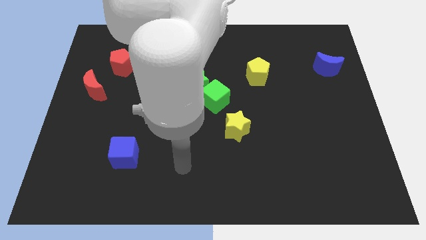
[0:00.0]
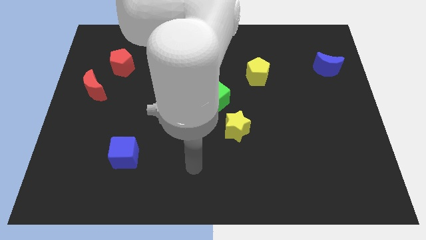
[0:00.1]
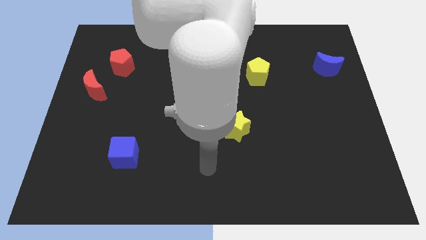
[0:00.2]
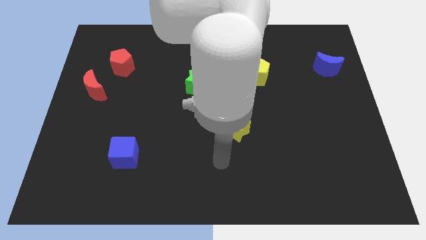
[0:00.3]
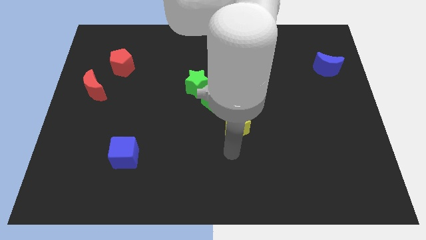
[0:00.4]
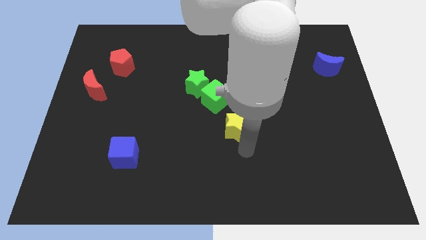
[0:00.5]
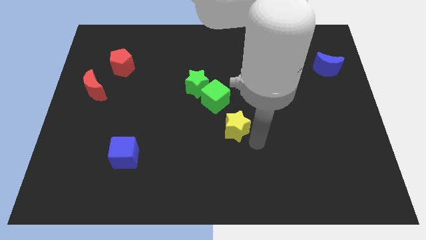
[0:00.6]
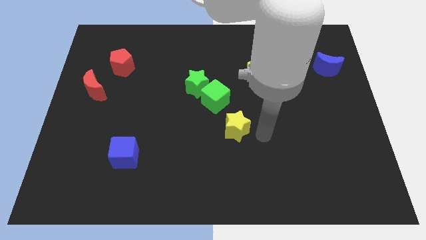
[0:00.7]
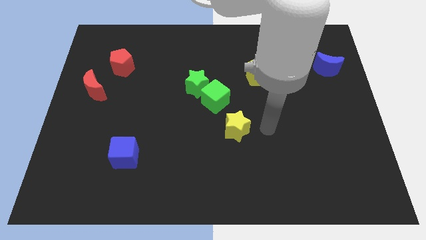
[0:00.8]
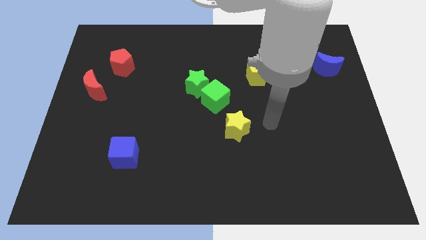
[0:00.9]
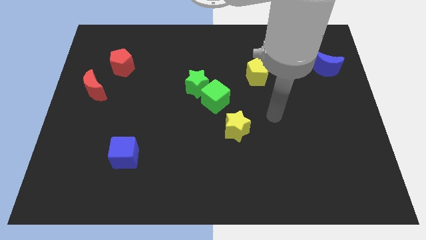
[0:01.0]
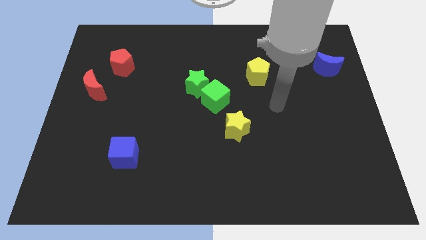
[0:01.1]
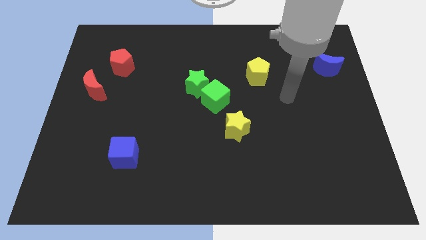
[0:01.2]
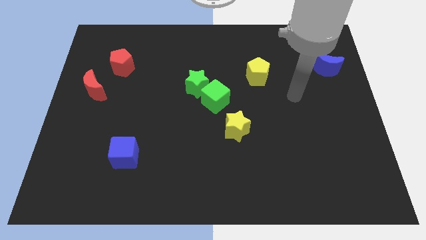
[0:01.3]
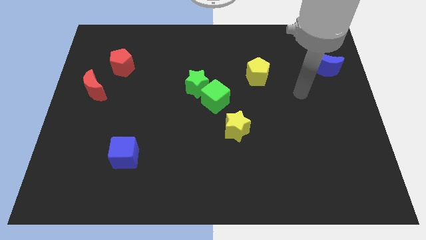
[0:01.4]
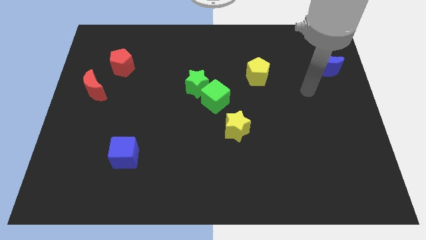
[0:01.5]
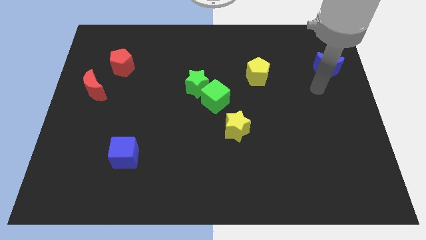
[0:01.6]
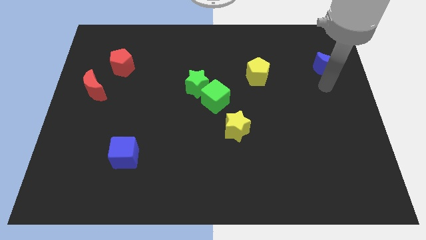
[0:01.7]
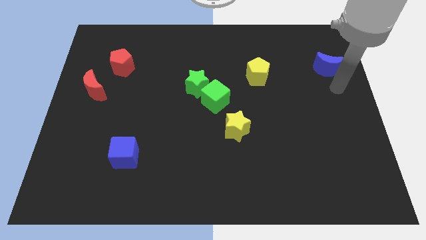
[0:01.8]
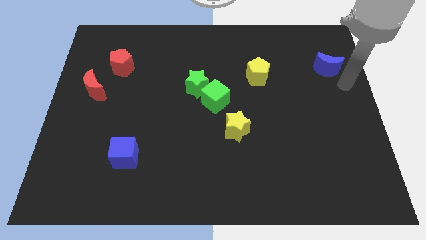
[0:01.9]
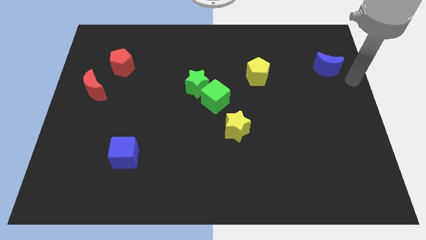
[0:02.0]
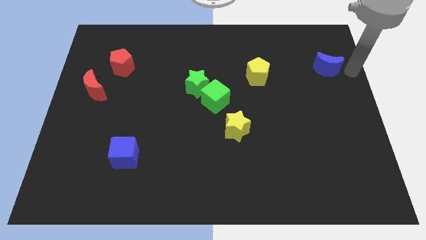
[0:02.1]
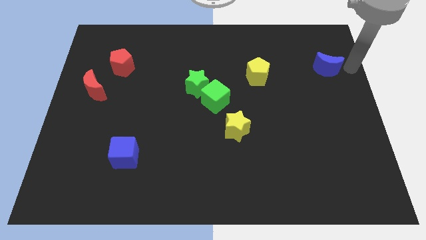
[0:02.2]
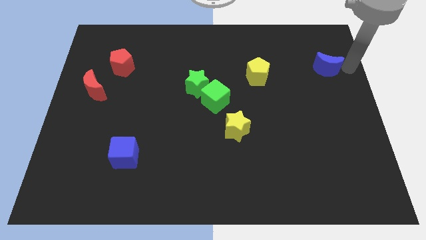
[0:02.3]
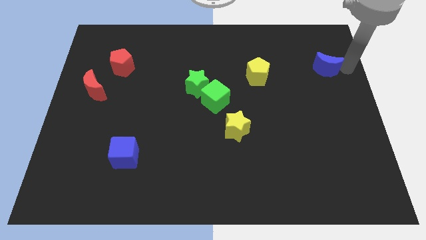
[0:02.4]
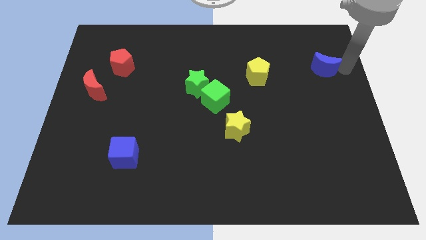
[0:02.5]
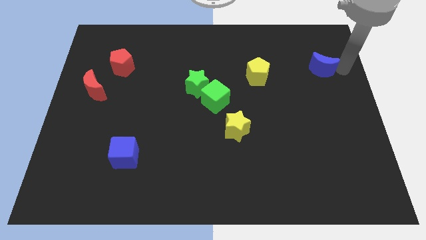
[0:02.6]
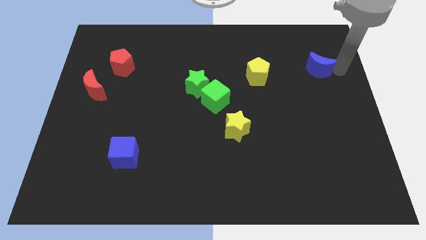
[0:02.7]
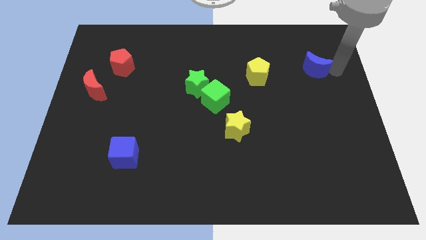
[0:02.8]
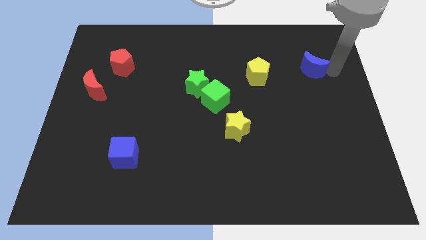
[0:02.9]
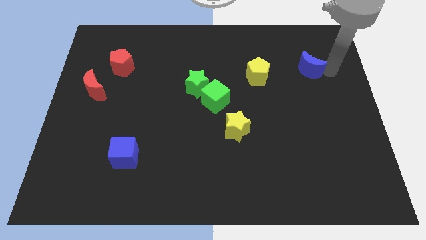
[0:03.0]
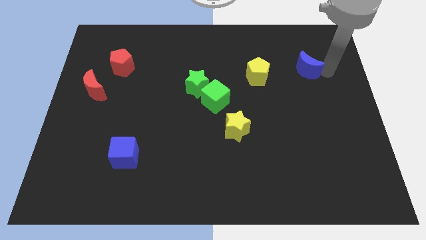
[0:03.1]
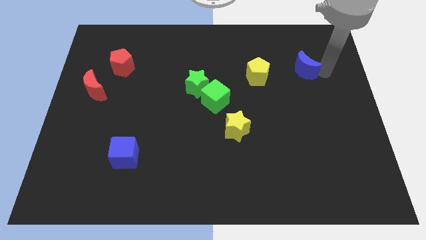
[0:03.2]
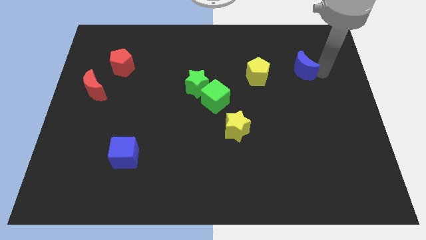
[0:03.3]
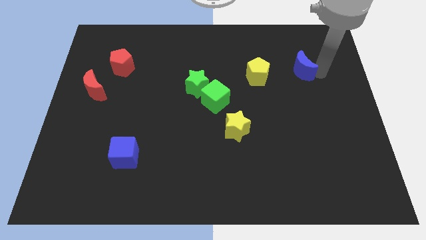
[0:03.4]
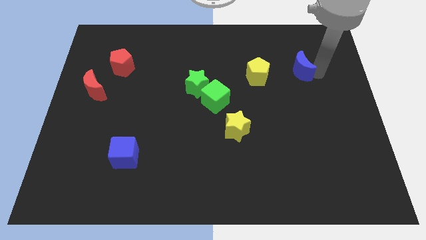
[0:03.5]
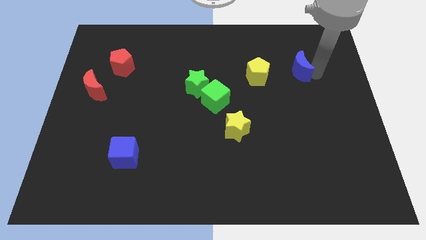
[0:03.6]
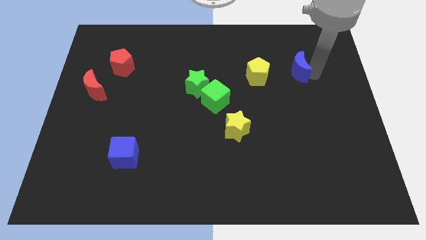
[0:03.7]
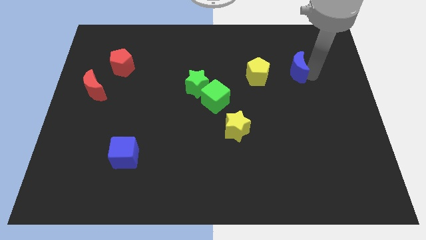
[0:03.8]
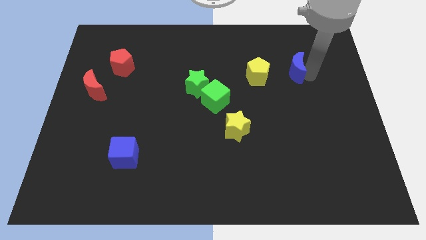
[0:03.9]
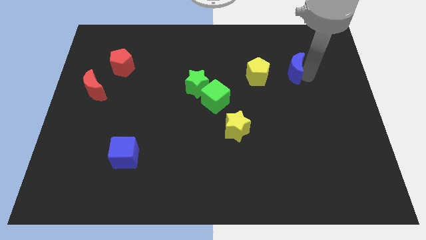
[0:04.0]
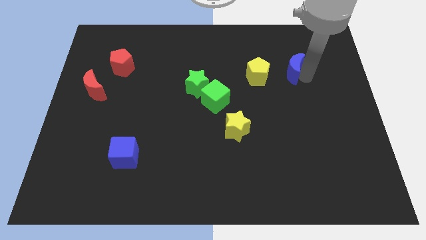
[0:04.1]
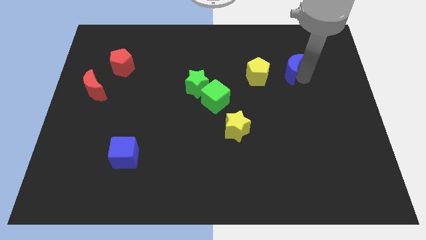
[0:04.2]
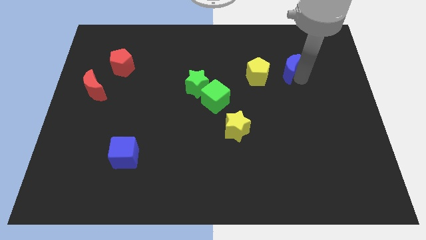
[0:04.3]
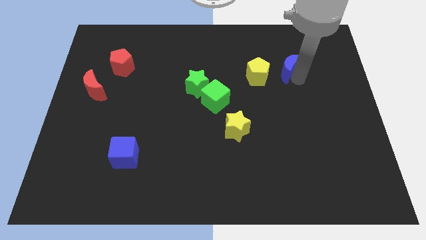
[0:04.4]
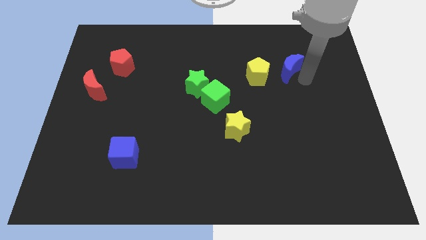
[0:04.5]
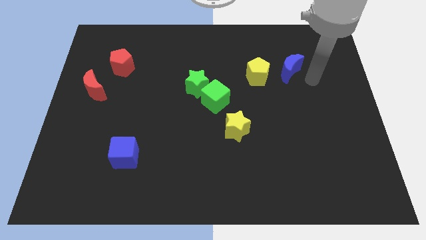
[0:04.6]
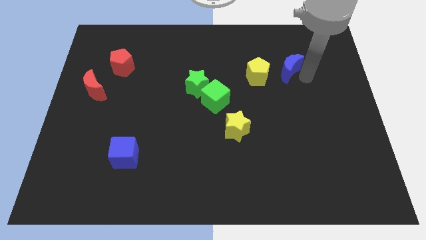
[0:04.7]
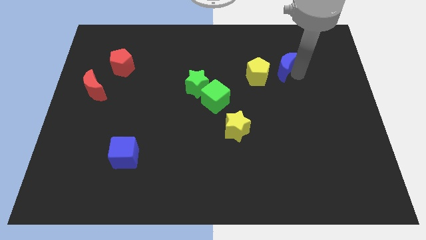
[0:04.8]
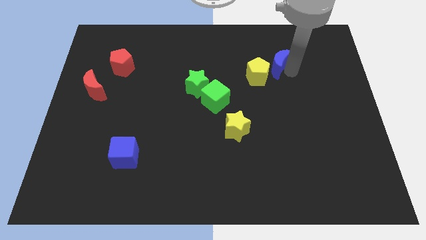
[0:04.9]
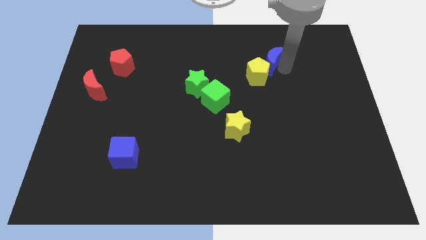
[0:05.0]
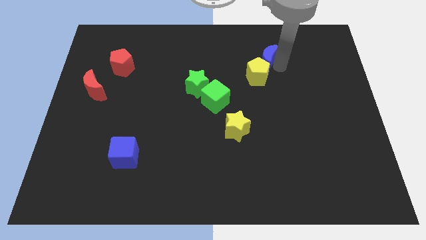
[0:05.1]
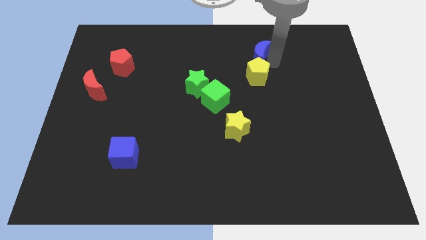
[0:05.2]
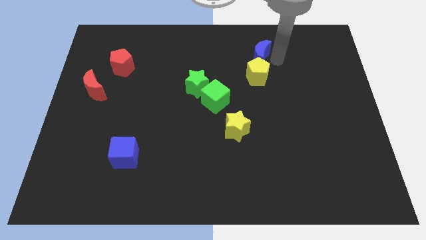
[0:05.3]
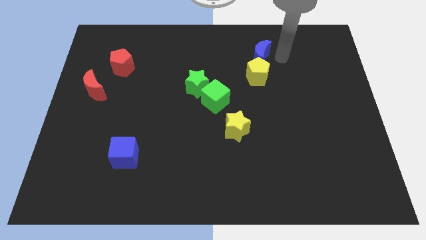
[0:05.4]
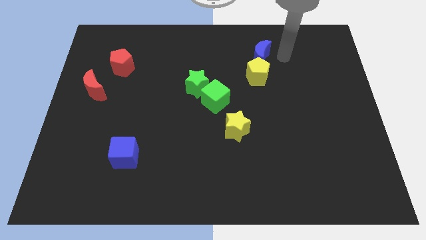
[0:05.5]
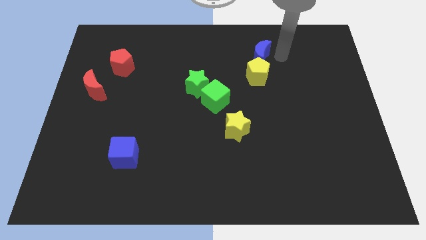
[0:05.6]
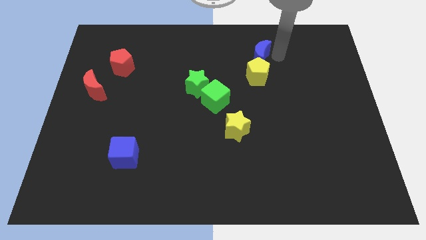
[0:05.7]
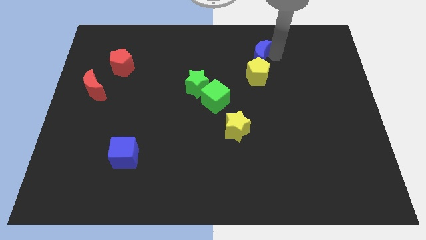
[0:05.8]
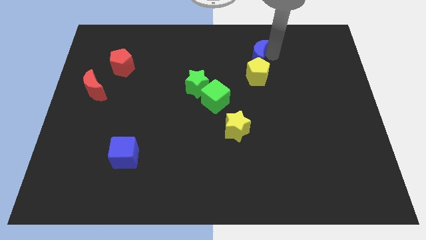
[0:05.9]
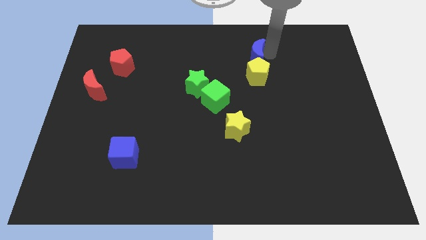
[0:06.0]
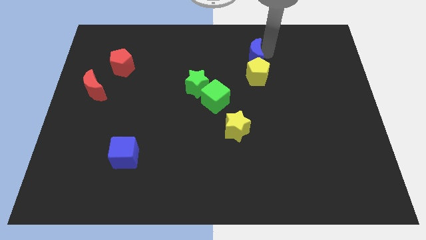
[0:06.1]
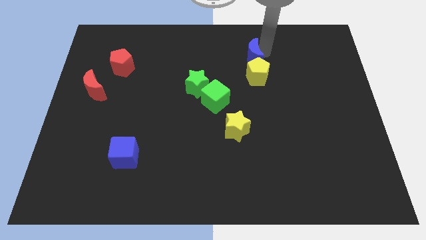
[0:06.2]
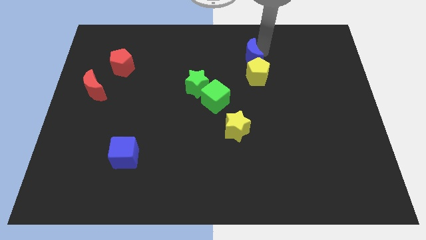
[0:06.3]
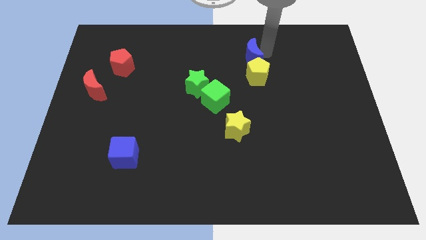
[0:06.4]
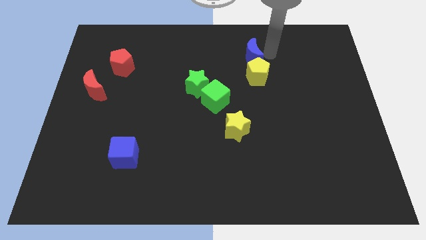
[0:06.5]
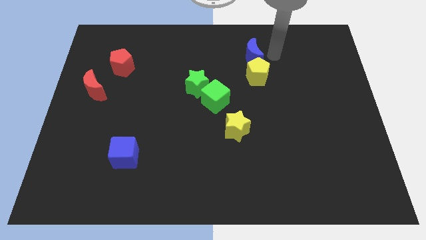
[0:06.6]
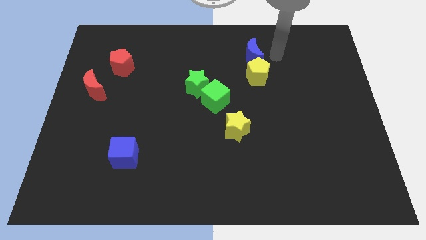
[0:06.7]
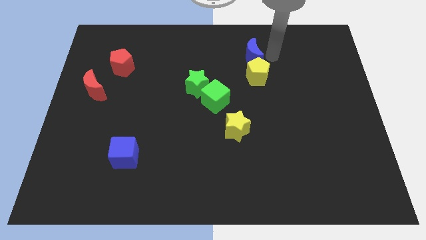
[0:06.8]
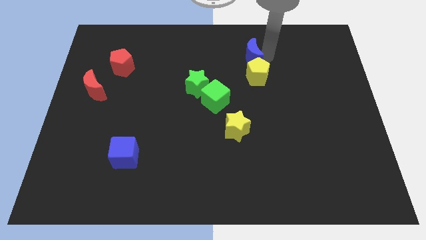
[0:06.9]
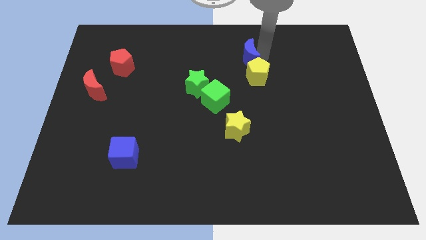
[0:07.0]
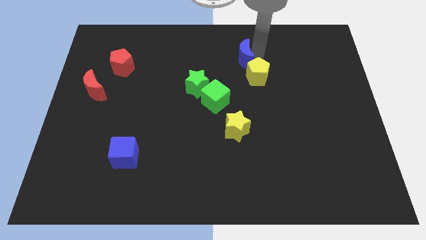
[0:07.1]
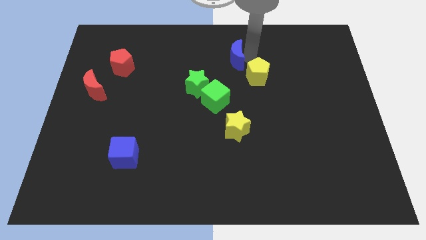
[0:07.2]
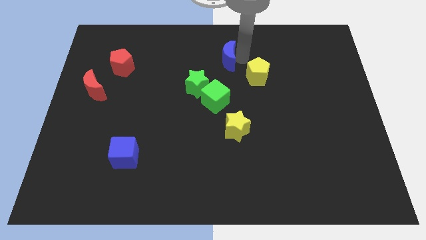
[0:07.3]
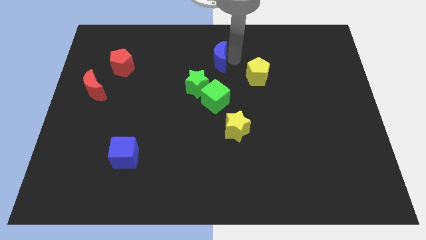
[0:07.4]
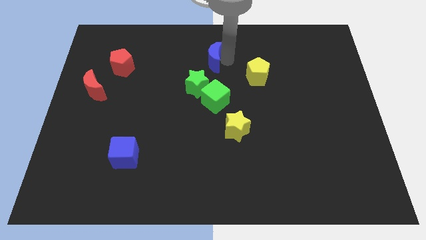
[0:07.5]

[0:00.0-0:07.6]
put the blue moon above the green star

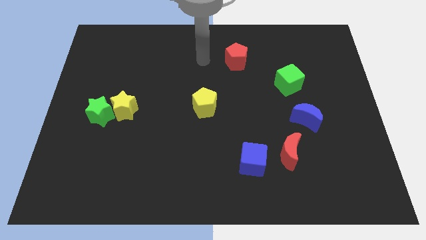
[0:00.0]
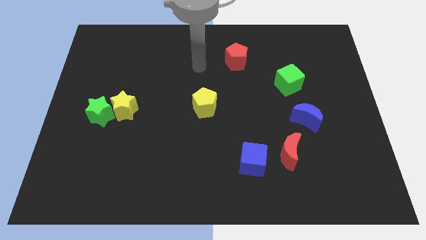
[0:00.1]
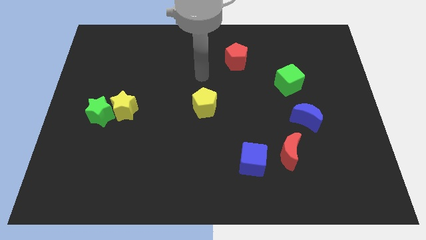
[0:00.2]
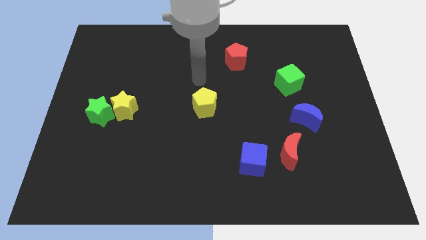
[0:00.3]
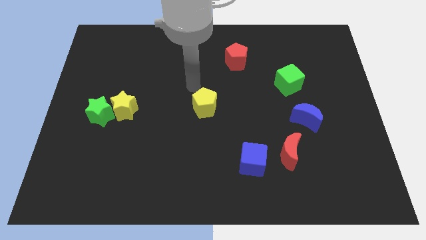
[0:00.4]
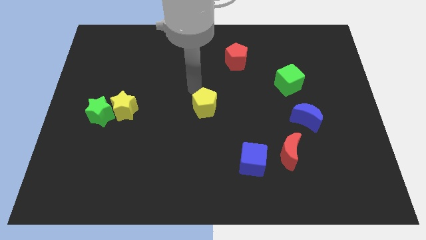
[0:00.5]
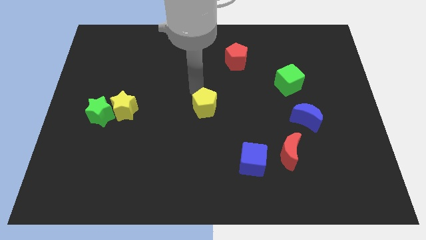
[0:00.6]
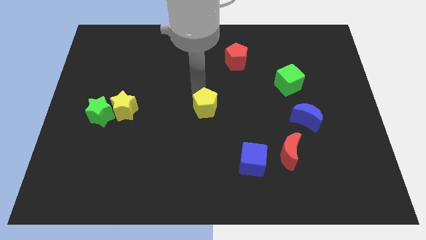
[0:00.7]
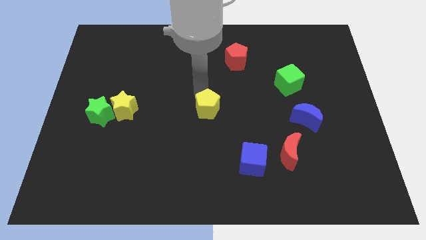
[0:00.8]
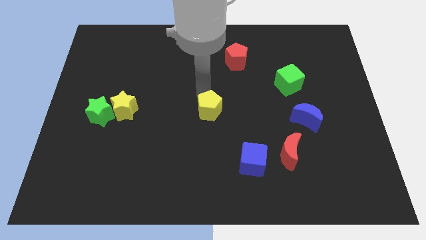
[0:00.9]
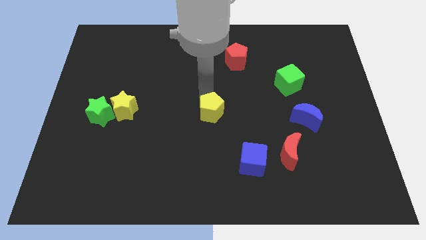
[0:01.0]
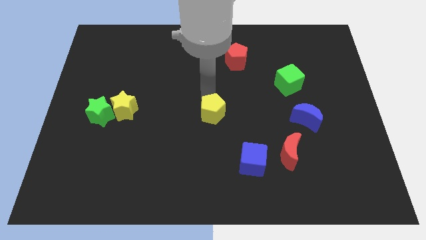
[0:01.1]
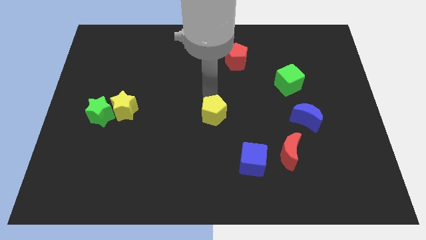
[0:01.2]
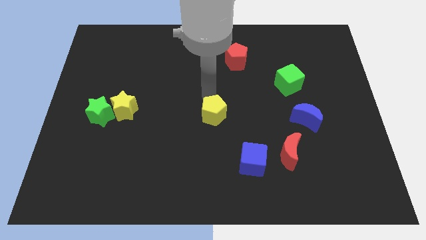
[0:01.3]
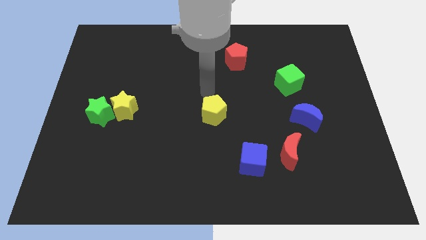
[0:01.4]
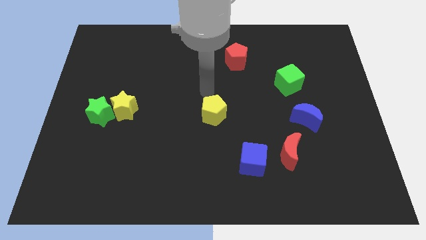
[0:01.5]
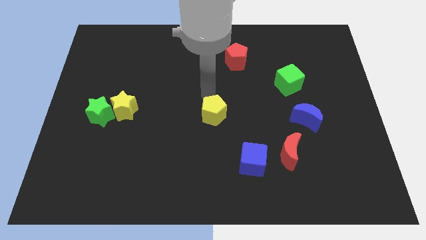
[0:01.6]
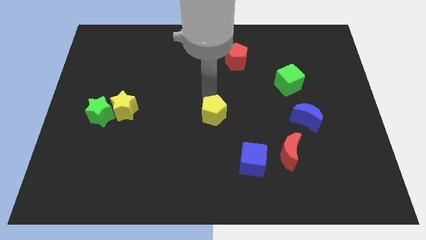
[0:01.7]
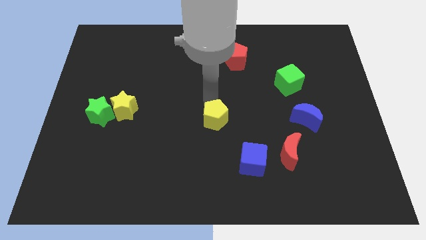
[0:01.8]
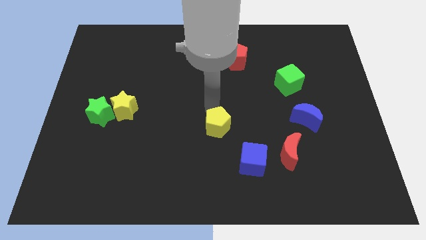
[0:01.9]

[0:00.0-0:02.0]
move the yellow pentagon to the top left of the blue cube
